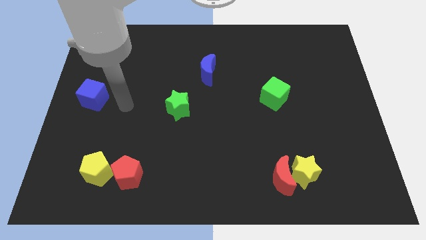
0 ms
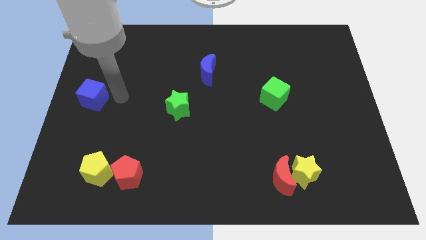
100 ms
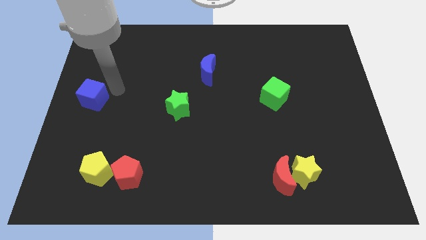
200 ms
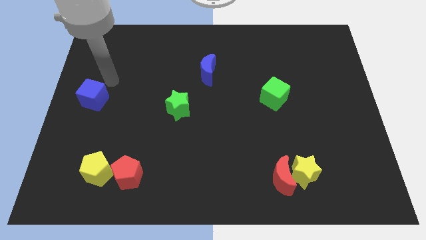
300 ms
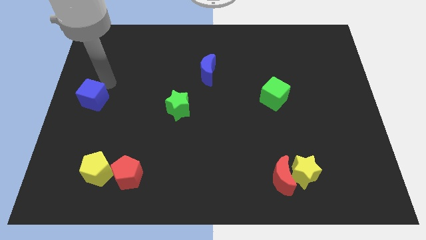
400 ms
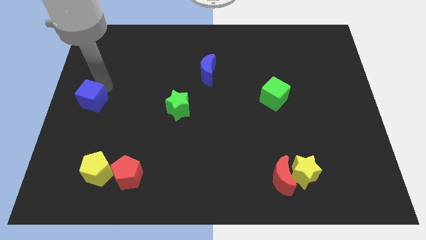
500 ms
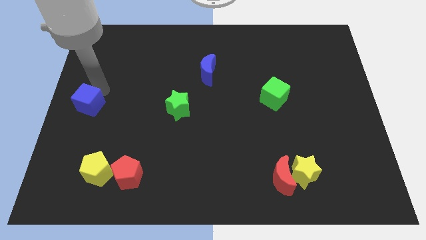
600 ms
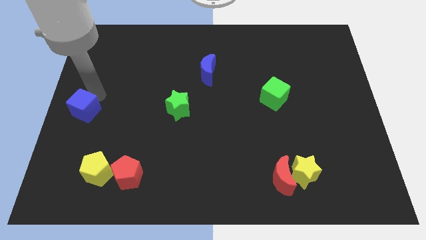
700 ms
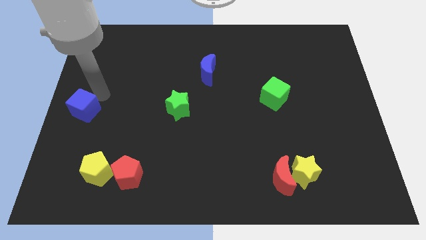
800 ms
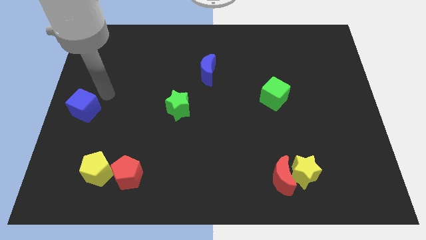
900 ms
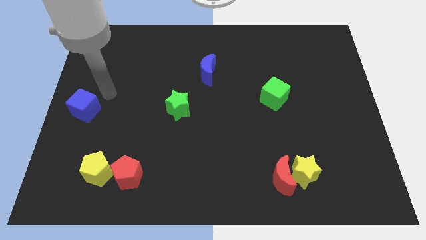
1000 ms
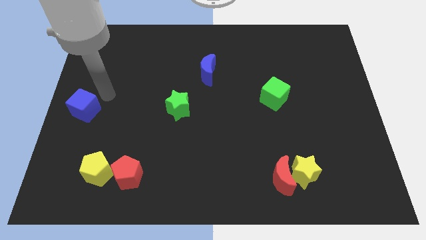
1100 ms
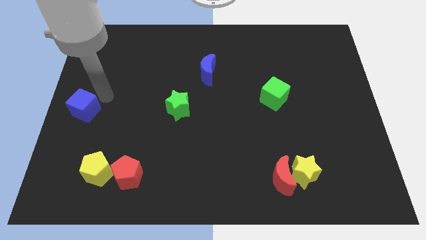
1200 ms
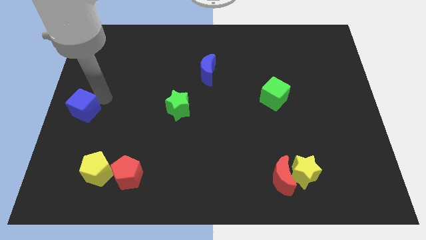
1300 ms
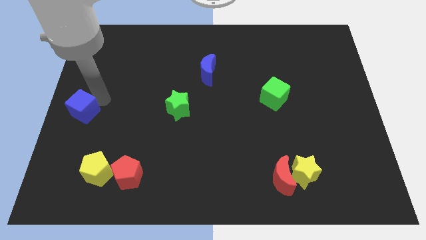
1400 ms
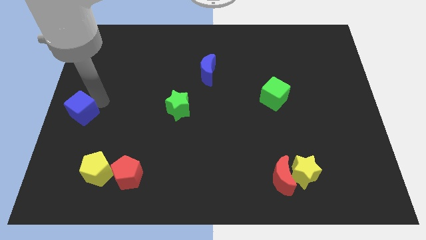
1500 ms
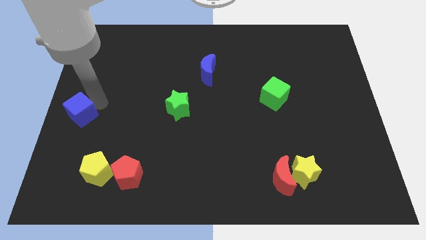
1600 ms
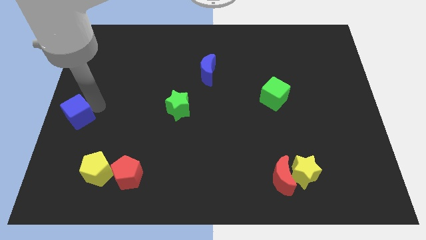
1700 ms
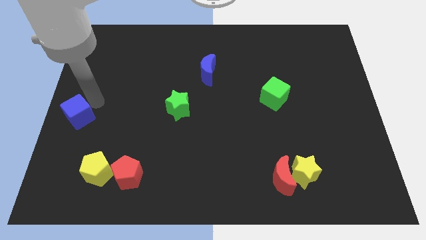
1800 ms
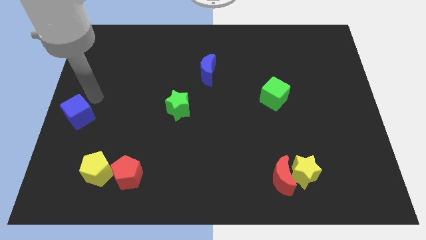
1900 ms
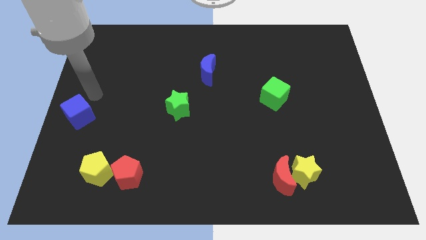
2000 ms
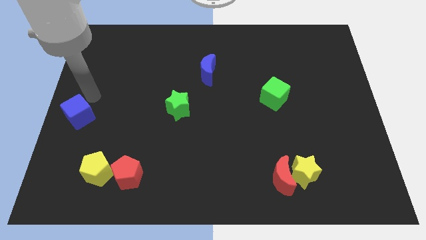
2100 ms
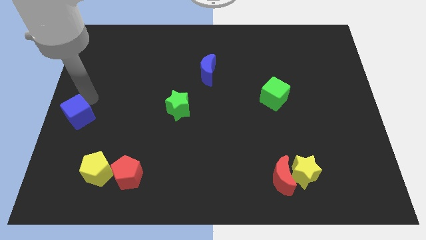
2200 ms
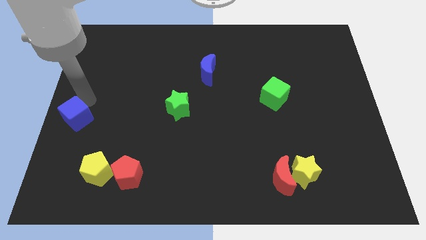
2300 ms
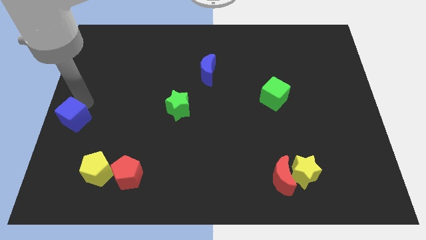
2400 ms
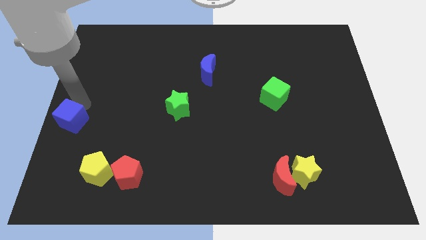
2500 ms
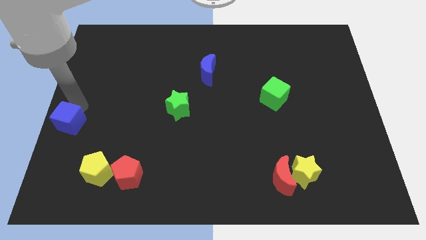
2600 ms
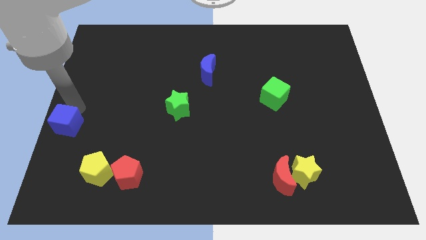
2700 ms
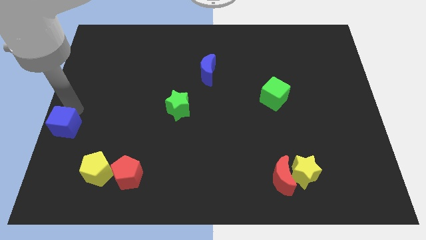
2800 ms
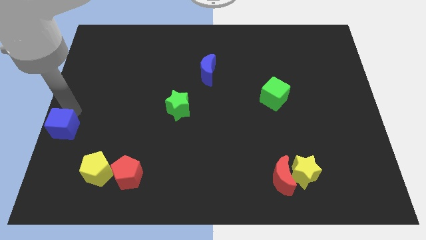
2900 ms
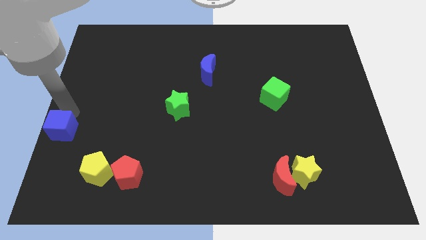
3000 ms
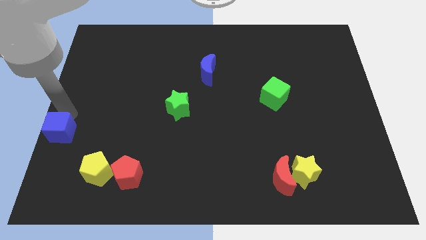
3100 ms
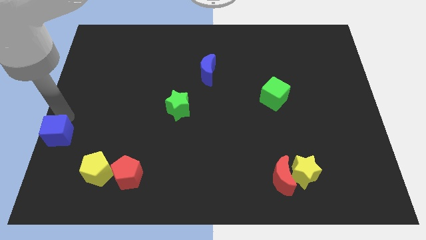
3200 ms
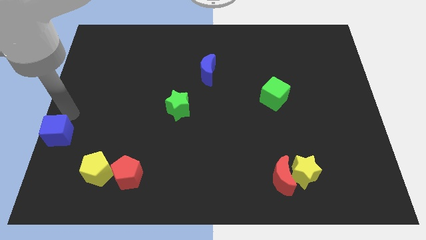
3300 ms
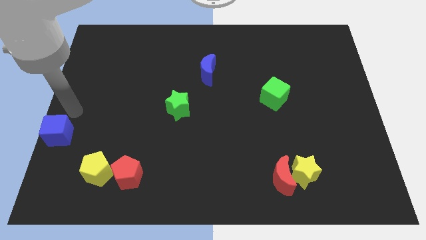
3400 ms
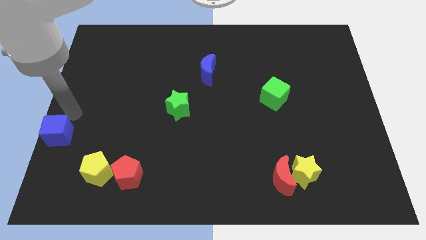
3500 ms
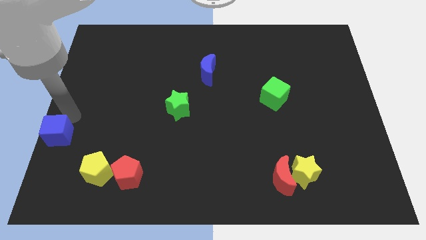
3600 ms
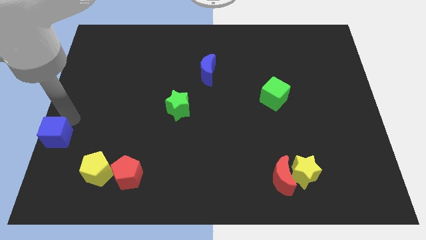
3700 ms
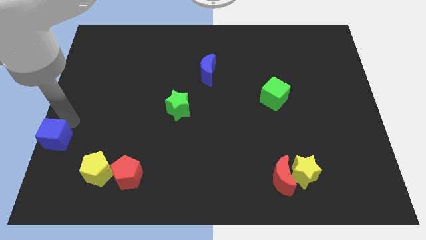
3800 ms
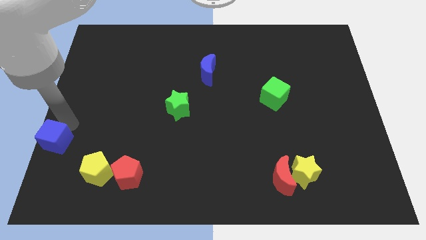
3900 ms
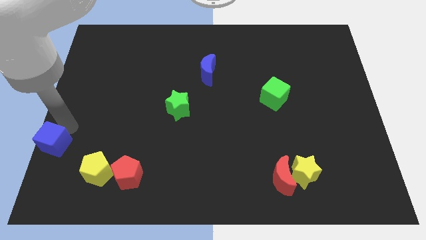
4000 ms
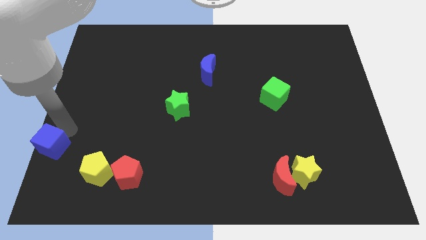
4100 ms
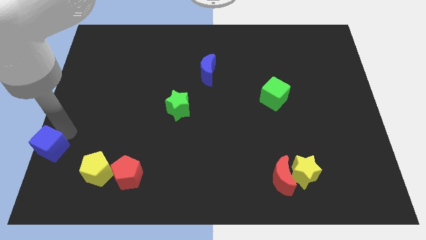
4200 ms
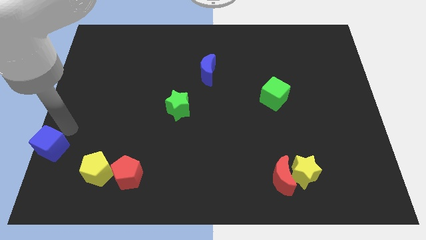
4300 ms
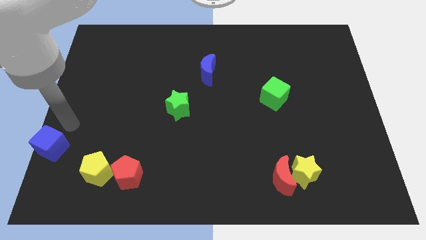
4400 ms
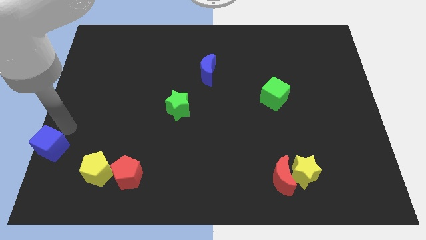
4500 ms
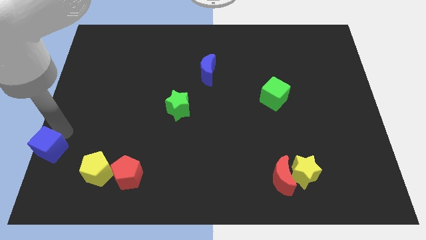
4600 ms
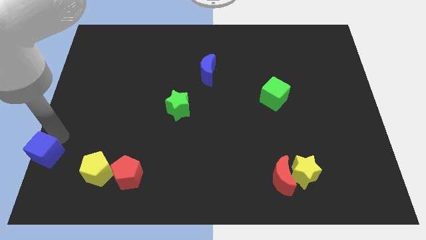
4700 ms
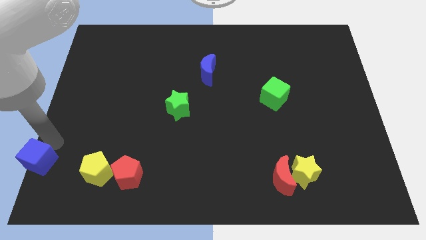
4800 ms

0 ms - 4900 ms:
push the blue cube to the bottom left

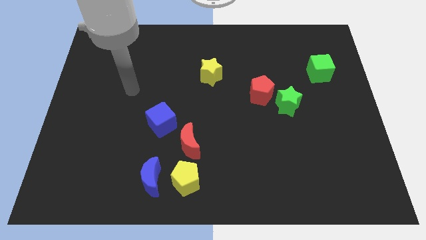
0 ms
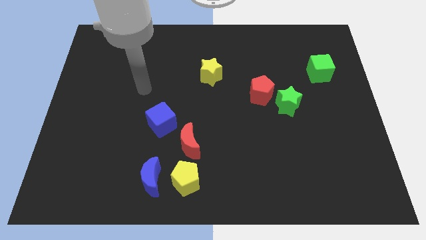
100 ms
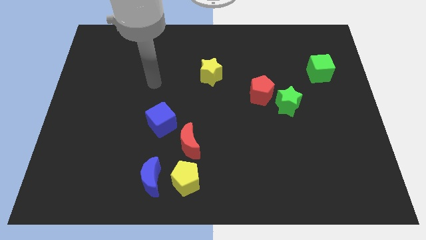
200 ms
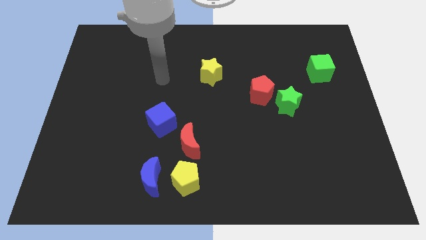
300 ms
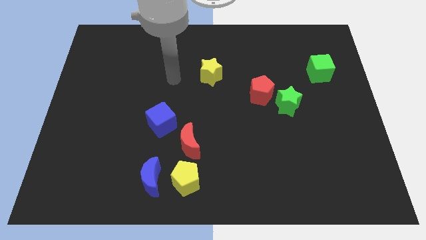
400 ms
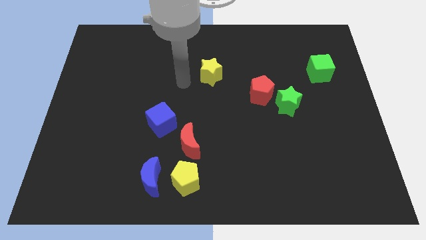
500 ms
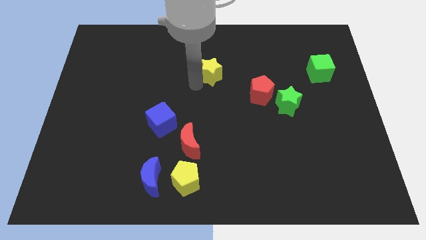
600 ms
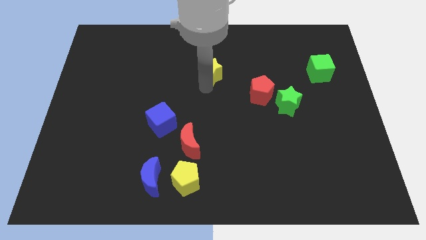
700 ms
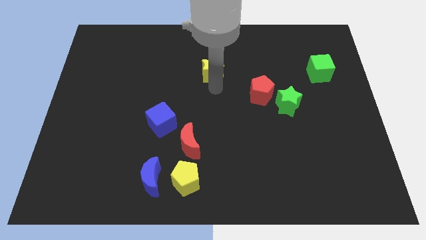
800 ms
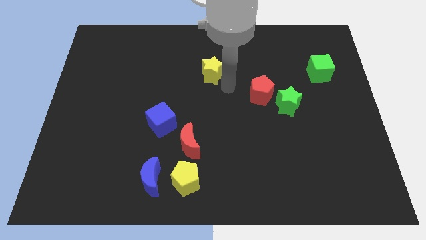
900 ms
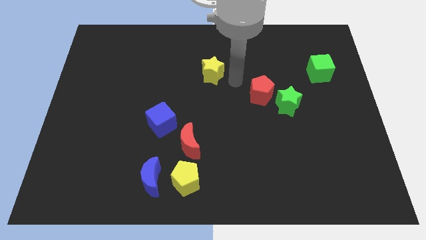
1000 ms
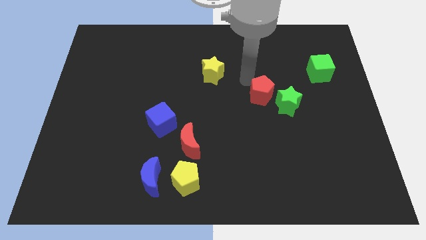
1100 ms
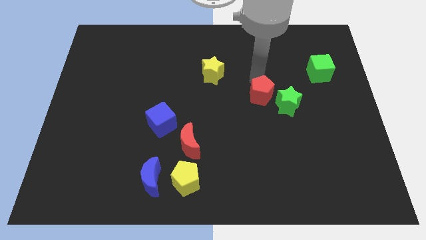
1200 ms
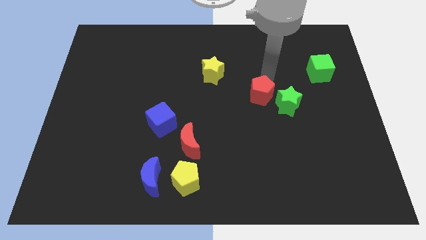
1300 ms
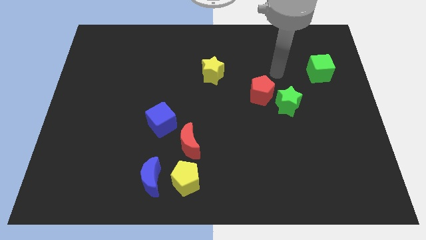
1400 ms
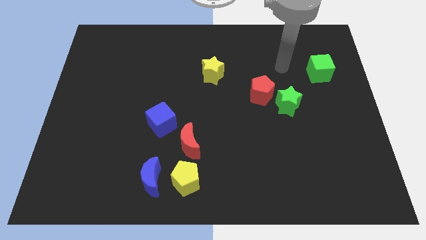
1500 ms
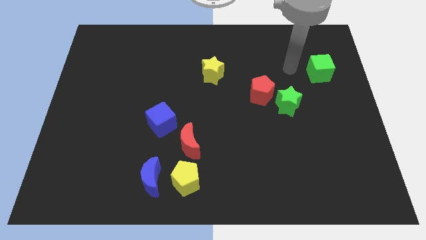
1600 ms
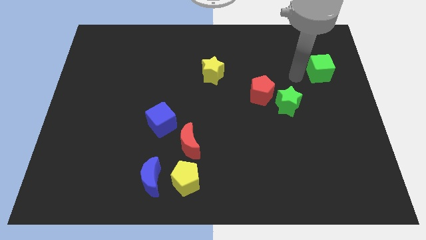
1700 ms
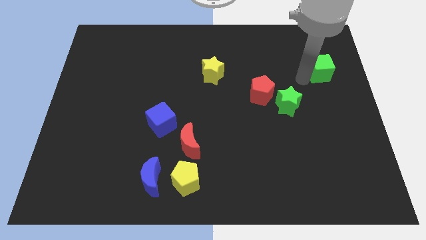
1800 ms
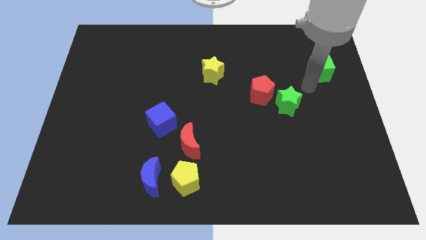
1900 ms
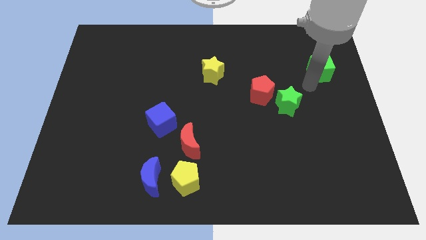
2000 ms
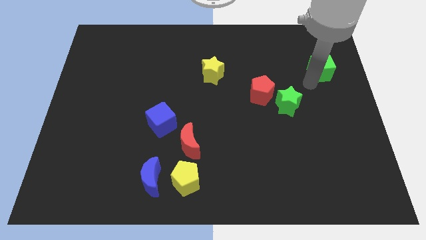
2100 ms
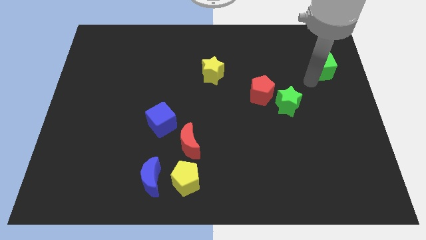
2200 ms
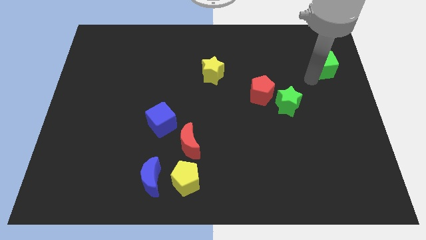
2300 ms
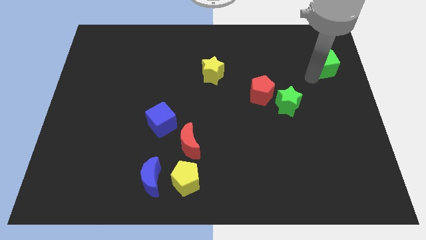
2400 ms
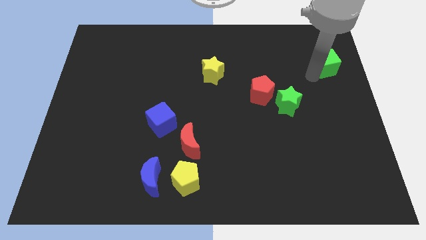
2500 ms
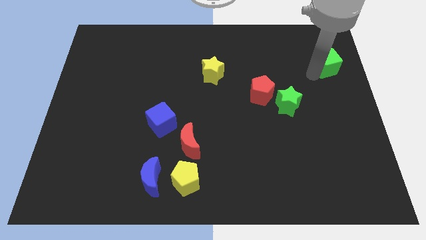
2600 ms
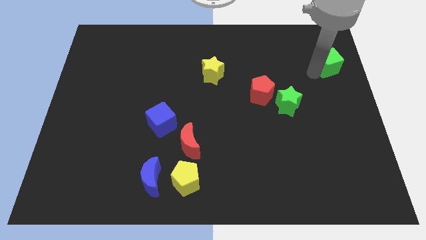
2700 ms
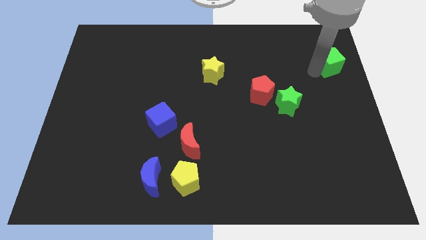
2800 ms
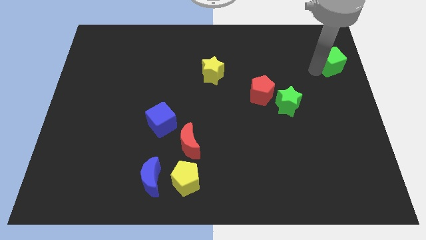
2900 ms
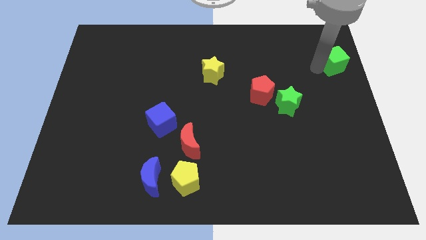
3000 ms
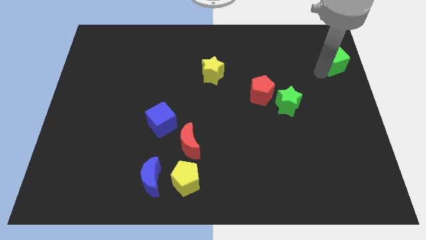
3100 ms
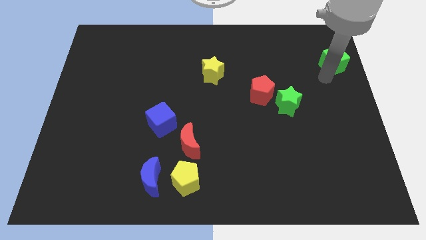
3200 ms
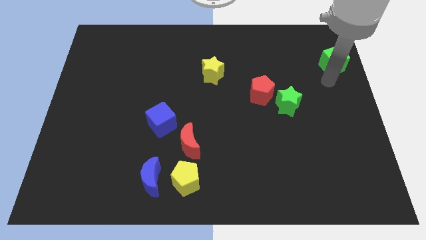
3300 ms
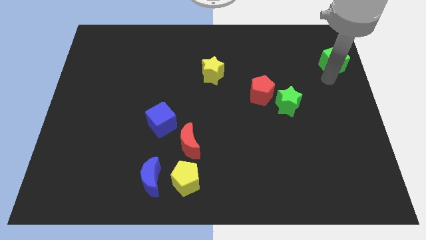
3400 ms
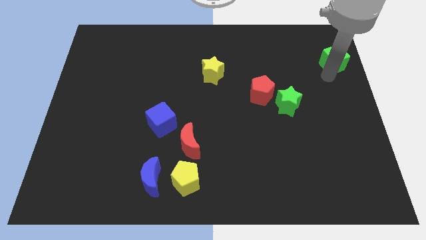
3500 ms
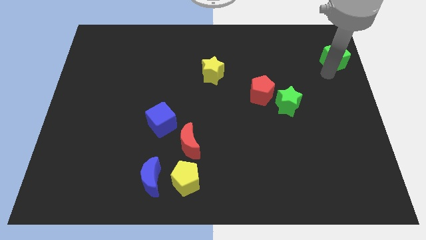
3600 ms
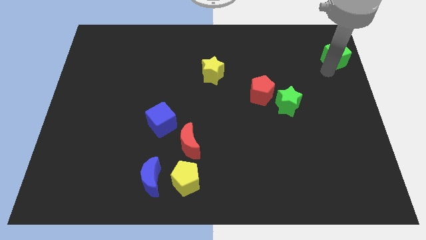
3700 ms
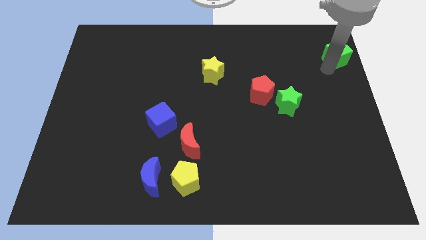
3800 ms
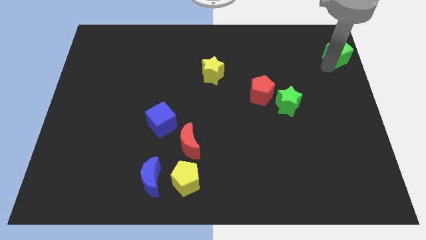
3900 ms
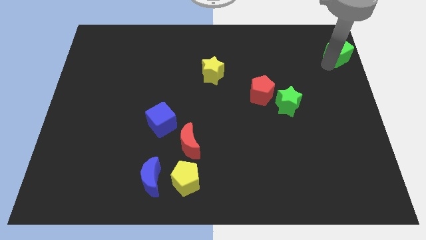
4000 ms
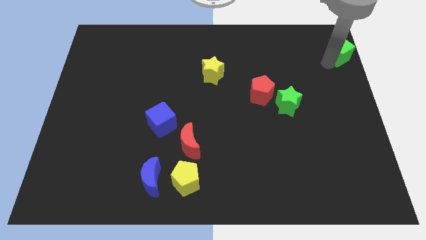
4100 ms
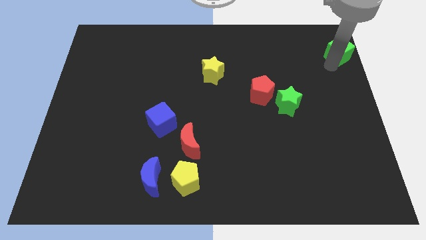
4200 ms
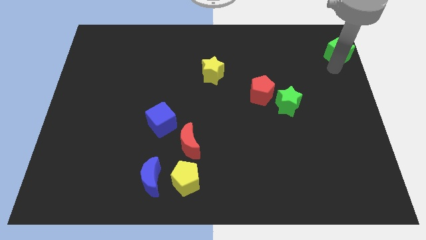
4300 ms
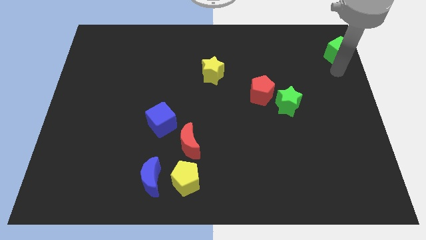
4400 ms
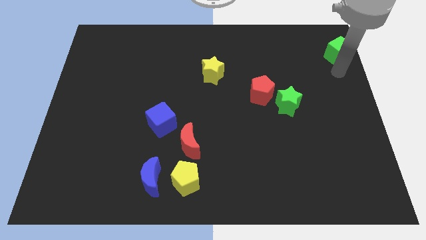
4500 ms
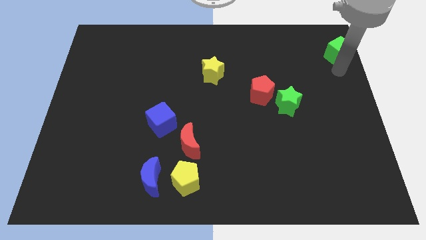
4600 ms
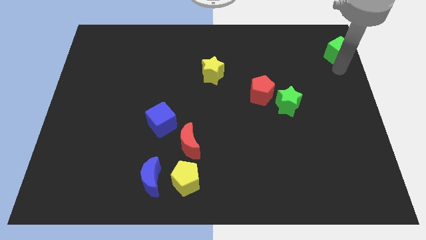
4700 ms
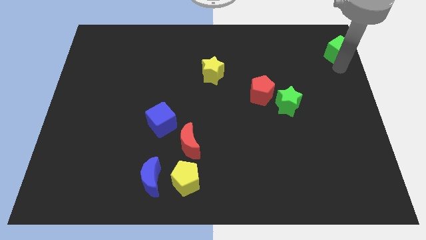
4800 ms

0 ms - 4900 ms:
move the green cube to the top right of the board
